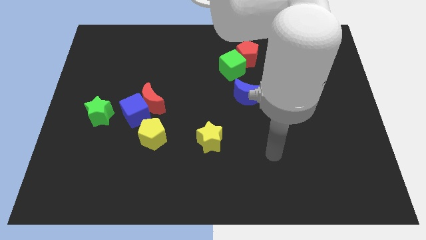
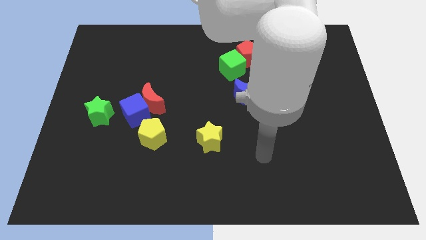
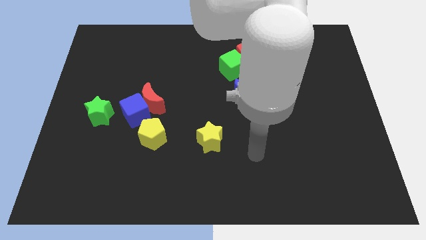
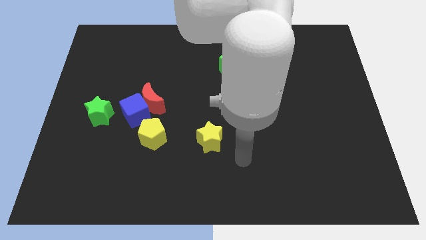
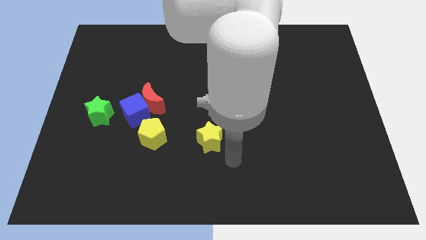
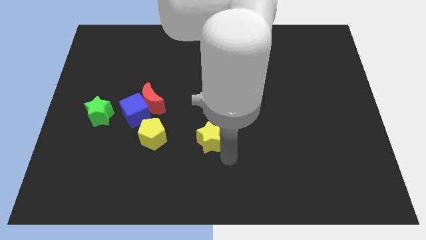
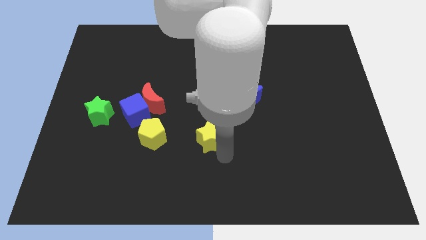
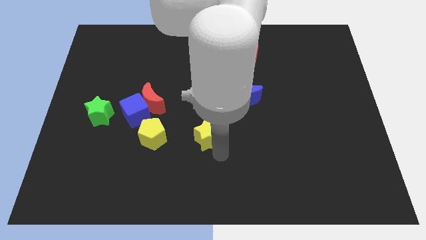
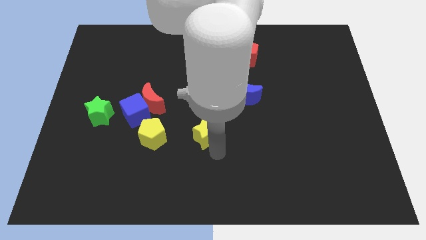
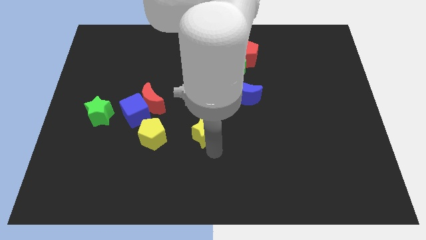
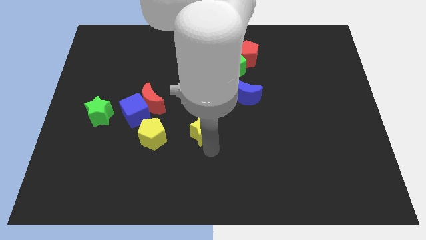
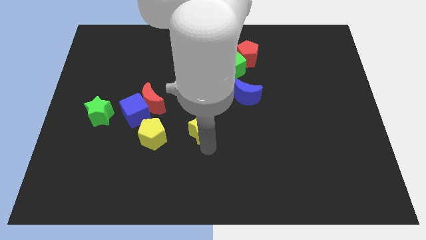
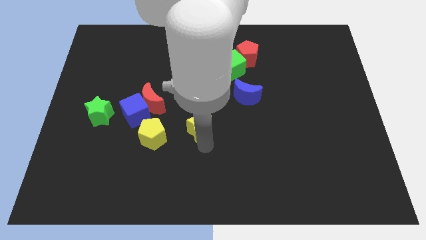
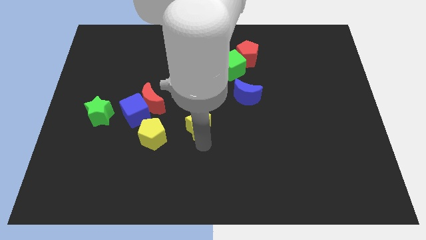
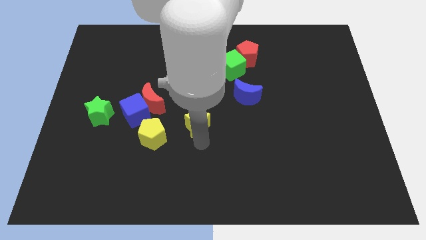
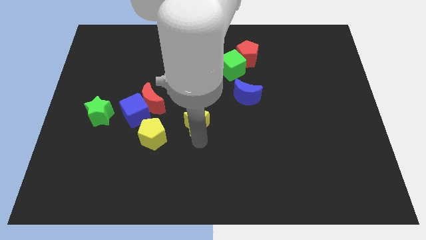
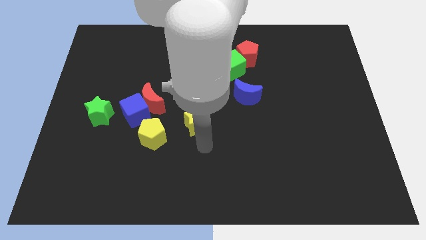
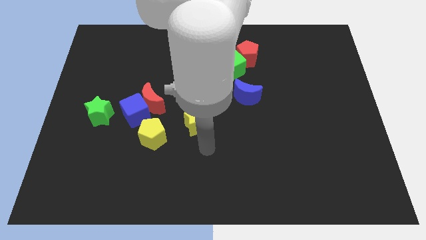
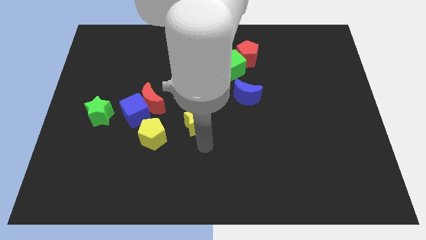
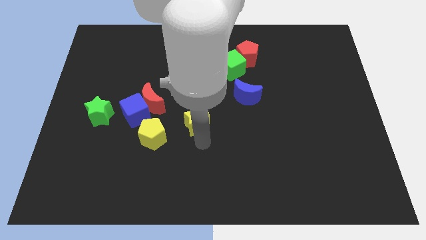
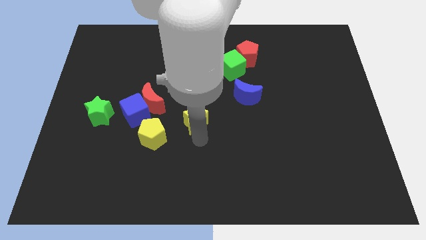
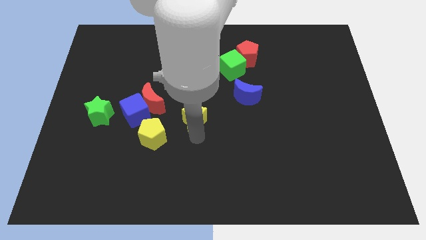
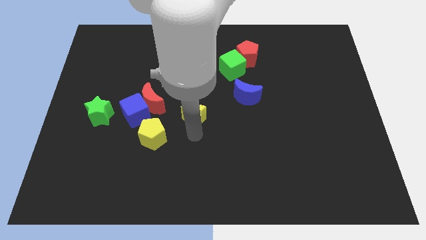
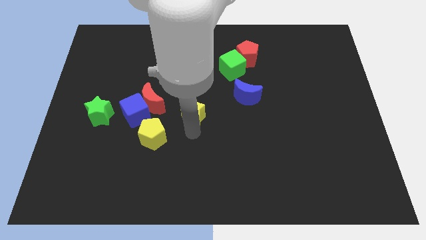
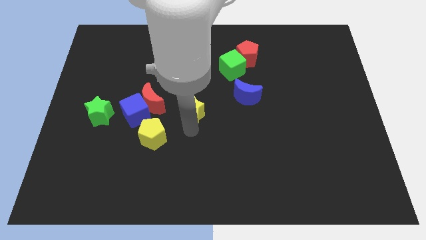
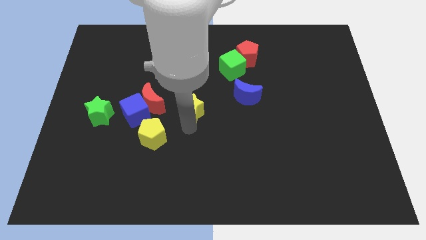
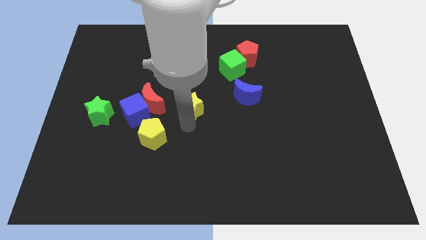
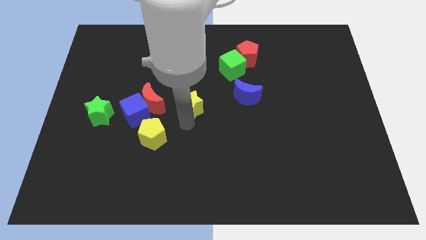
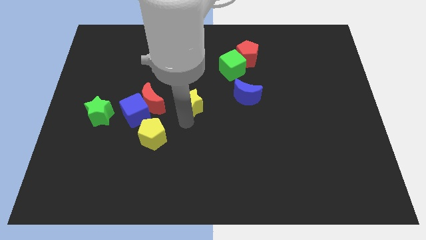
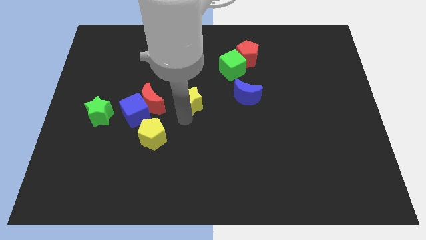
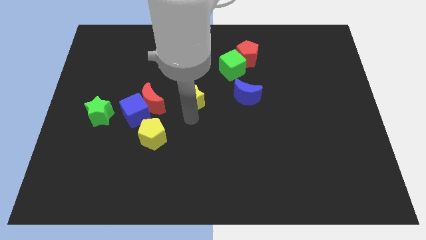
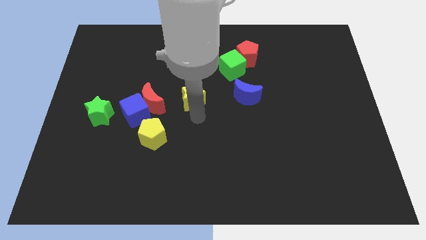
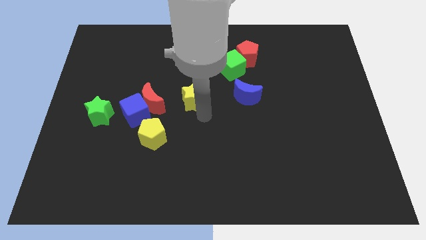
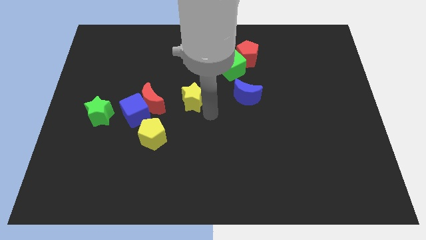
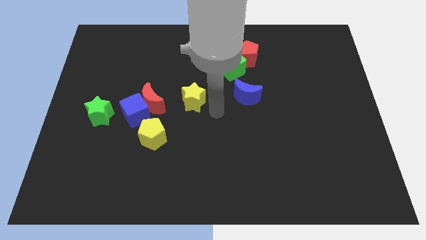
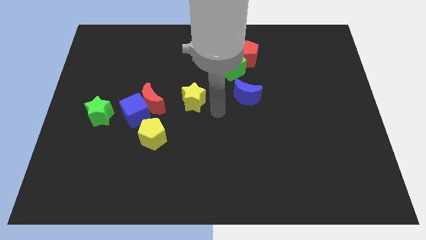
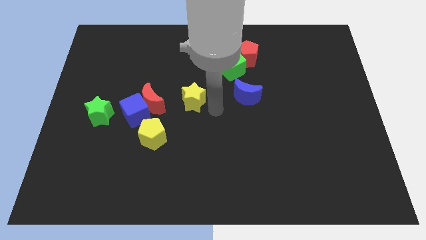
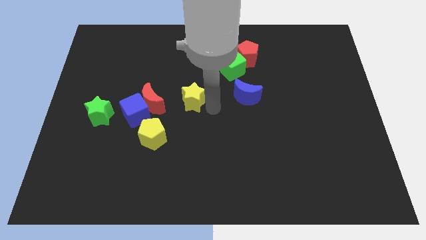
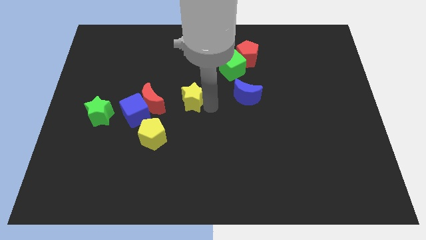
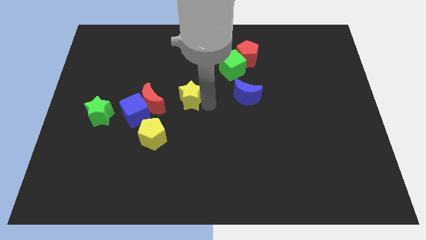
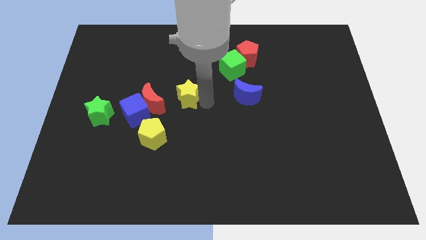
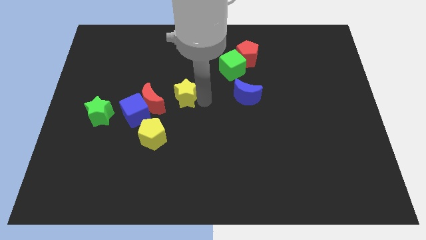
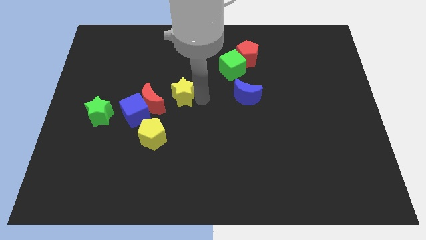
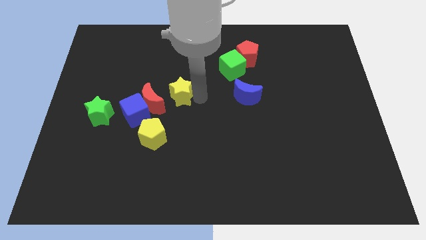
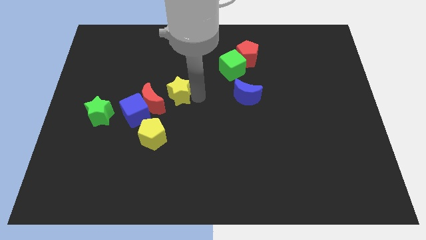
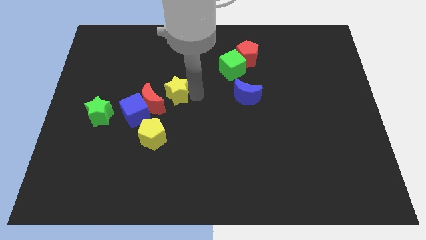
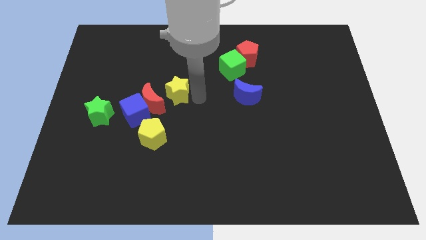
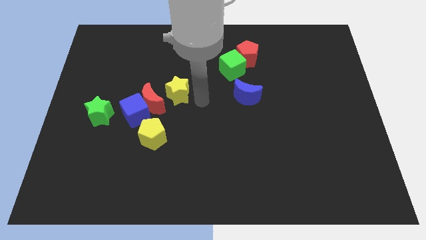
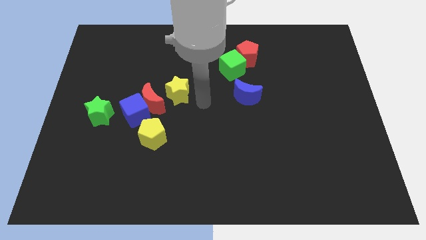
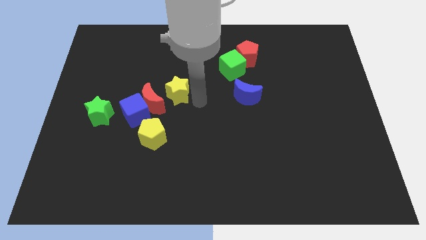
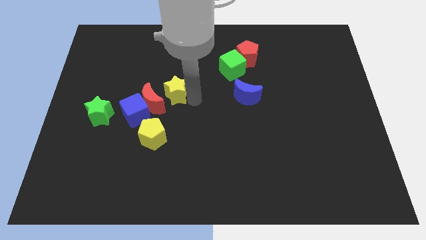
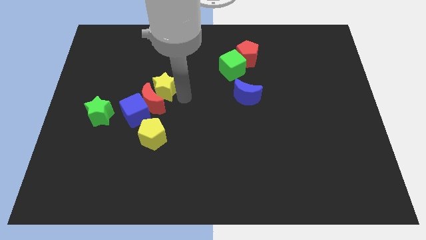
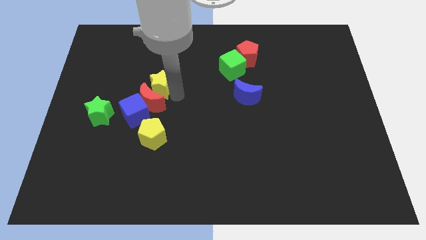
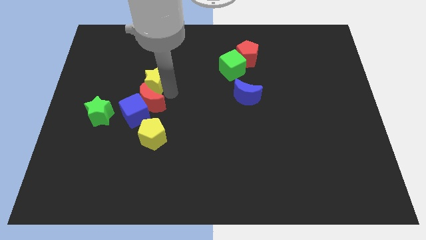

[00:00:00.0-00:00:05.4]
slide the yellow star upwards and left

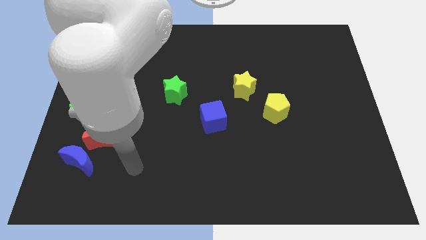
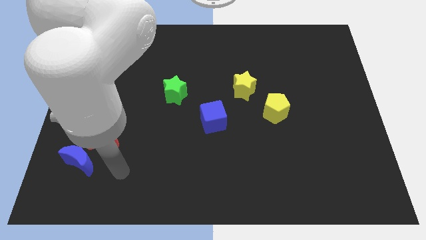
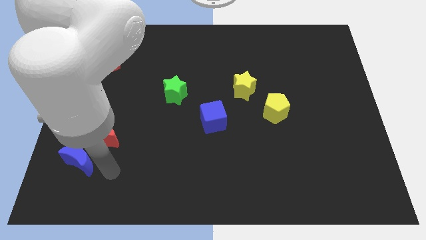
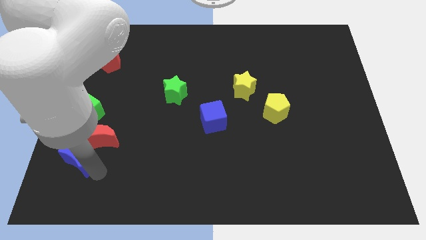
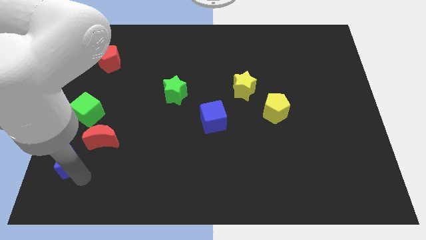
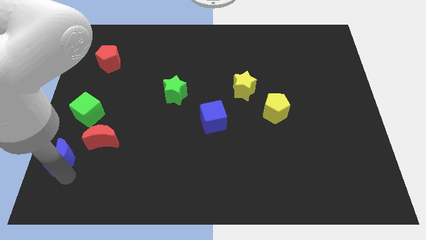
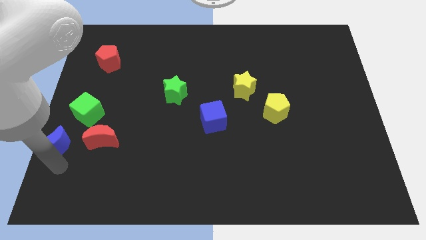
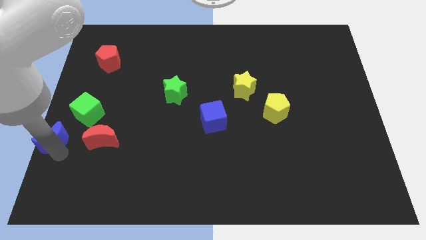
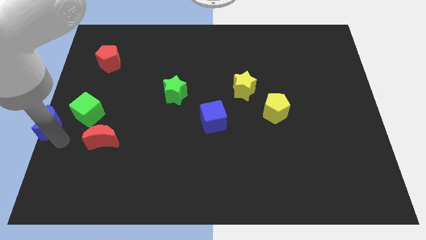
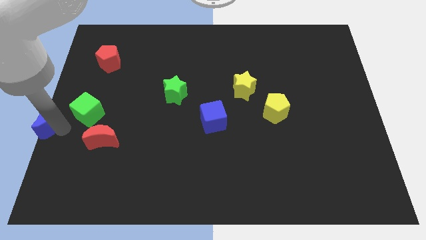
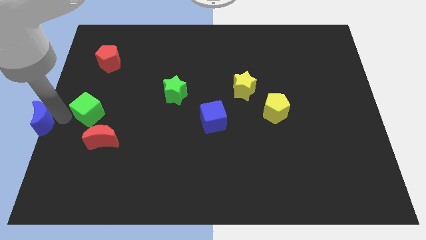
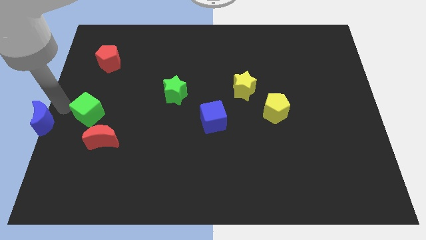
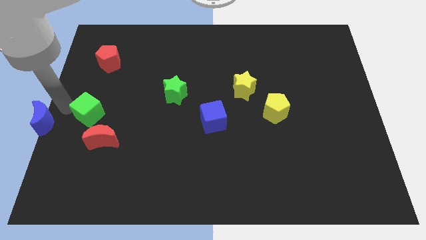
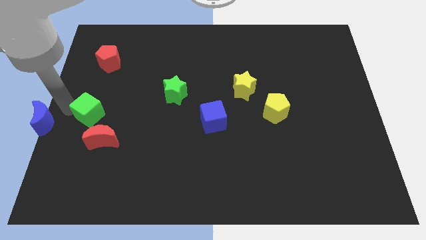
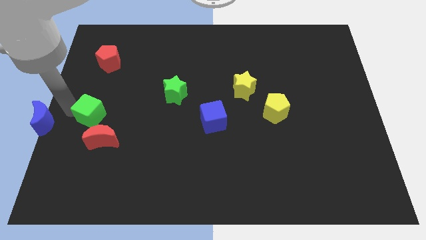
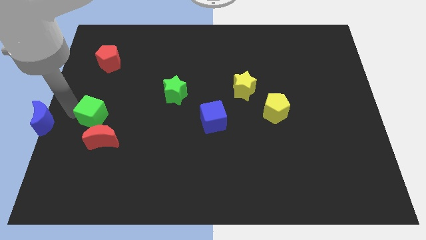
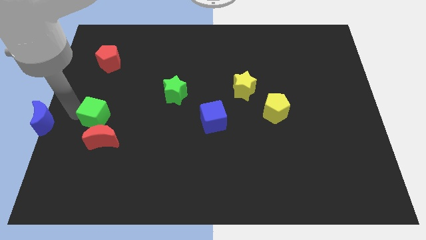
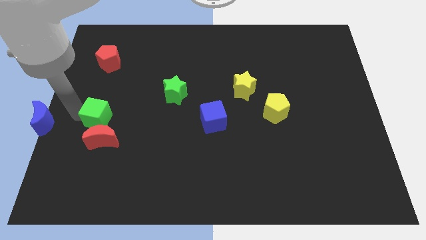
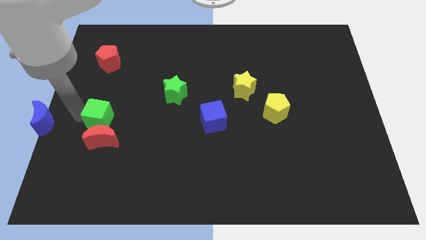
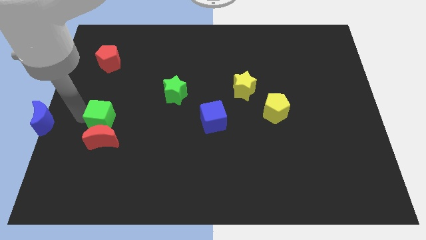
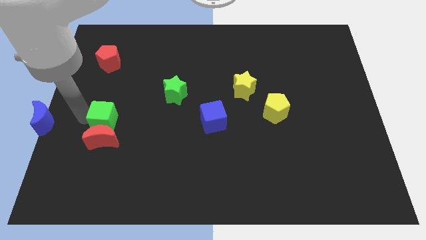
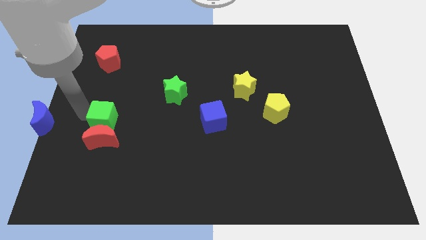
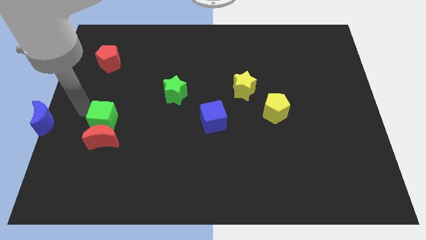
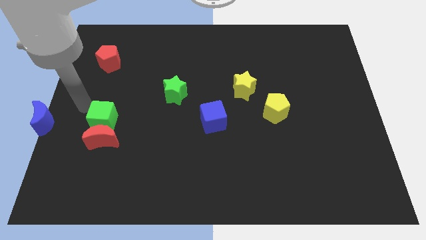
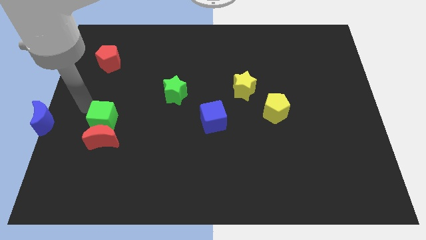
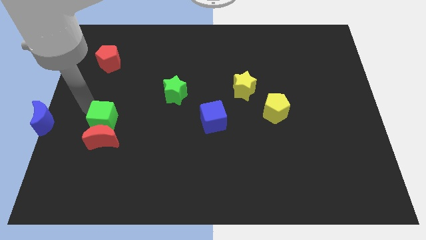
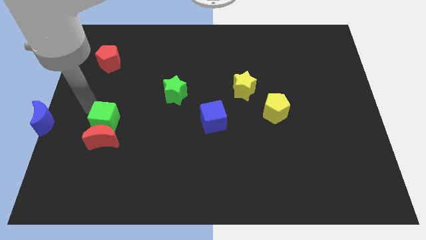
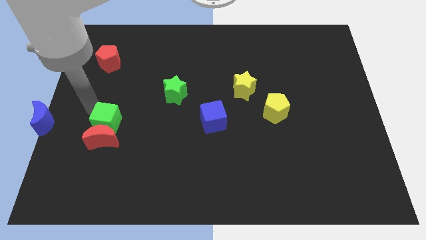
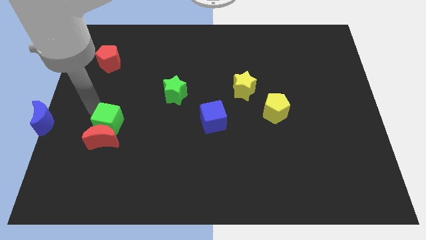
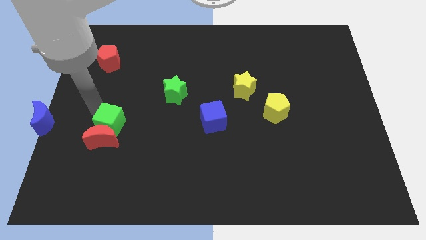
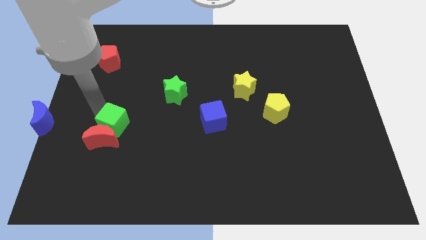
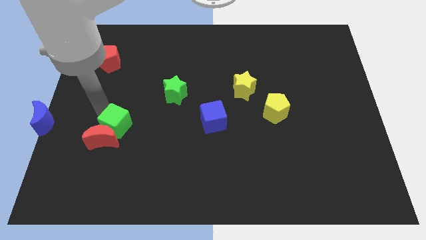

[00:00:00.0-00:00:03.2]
push the green cube downwards and right a bit
